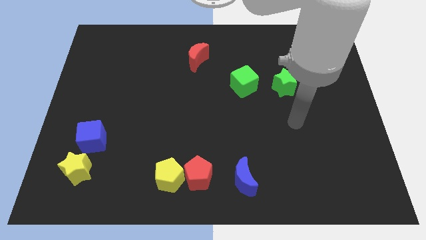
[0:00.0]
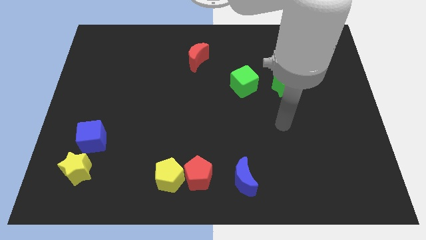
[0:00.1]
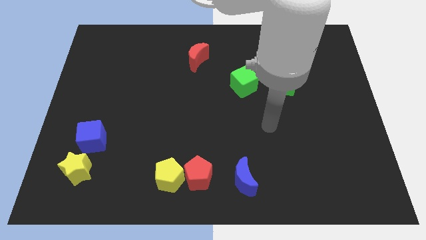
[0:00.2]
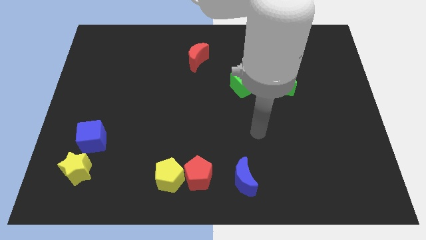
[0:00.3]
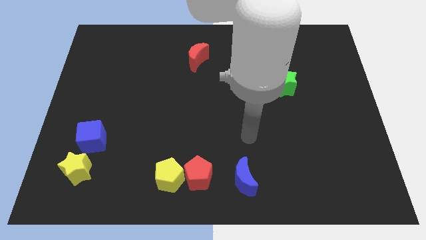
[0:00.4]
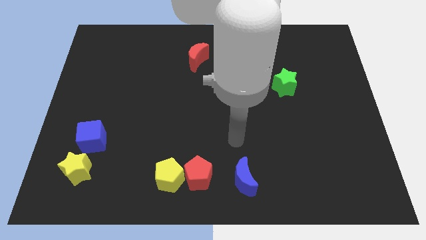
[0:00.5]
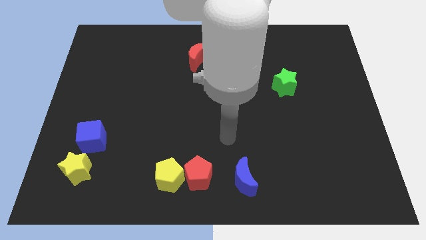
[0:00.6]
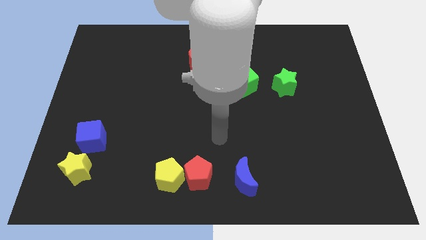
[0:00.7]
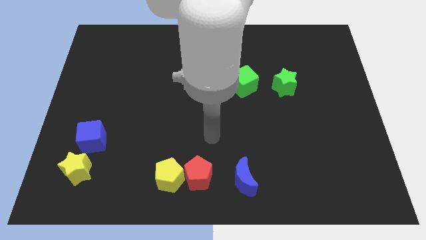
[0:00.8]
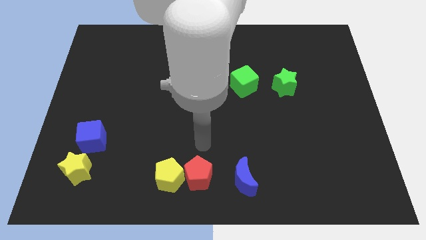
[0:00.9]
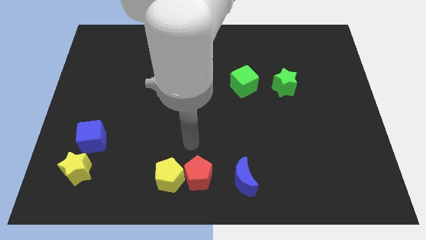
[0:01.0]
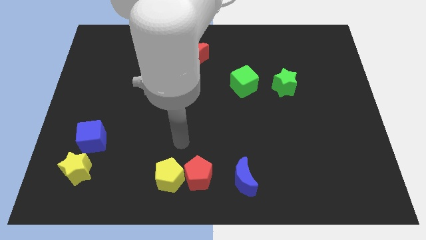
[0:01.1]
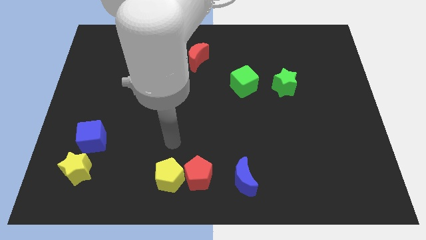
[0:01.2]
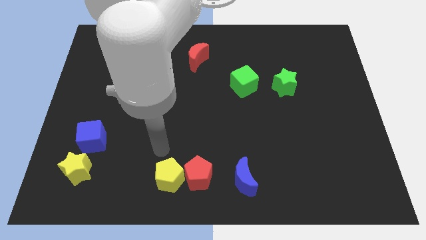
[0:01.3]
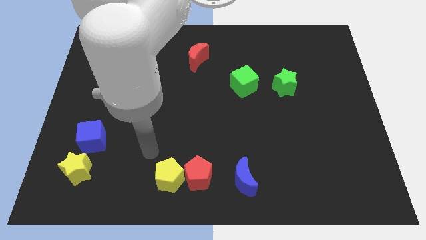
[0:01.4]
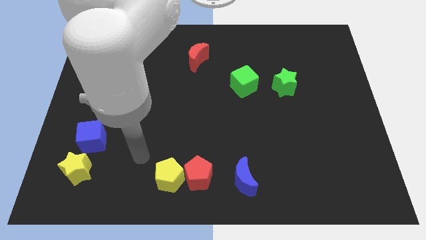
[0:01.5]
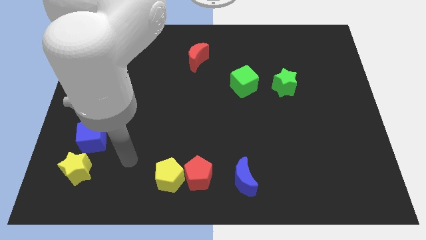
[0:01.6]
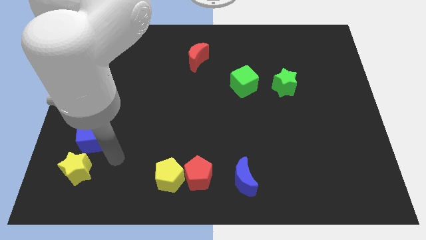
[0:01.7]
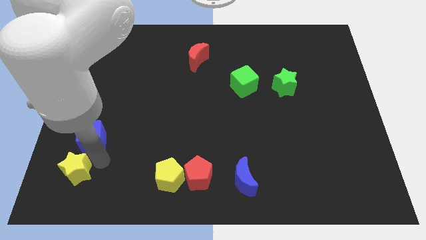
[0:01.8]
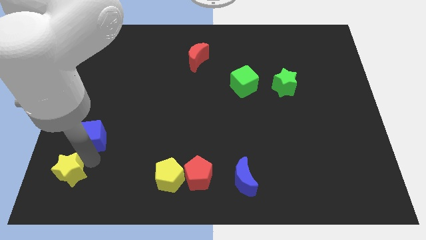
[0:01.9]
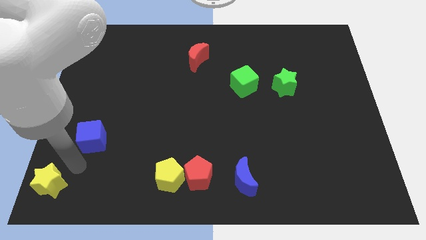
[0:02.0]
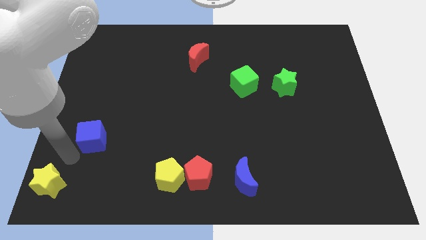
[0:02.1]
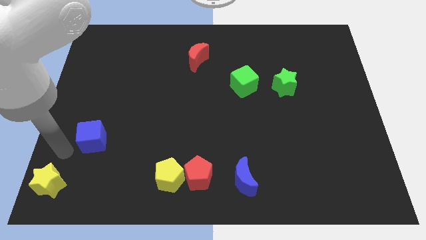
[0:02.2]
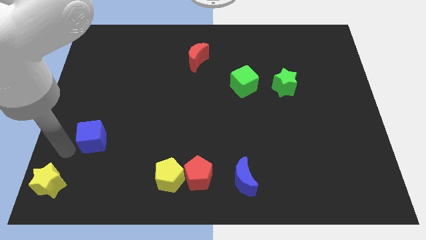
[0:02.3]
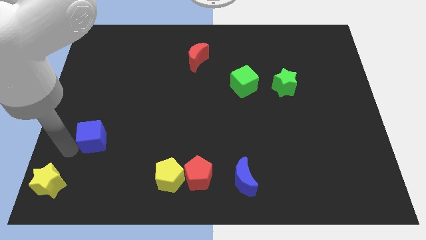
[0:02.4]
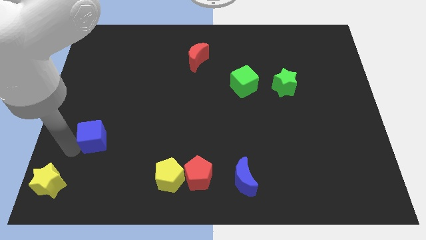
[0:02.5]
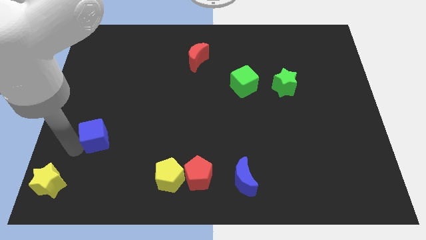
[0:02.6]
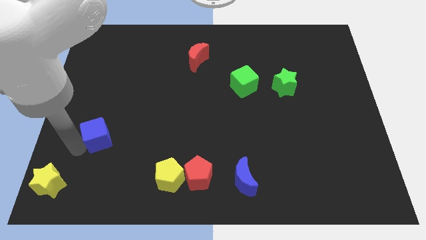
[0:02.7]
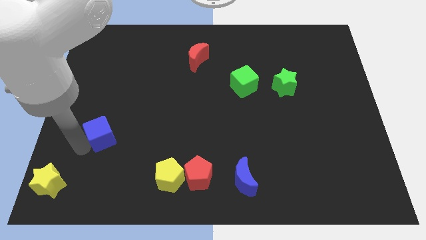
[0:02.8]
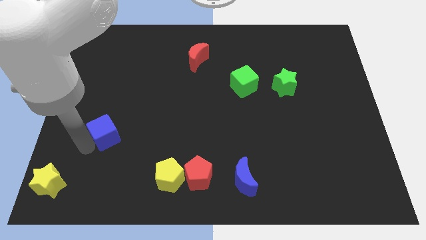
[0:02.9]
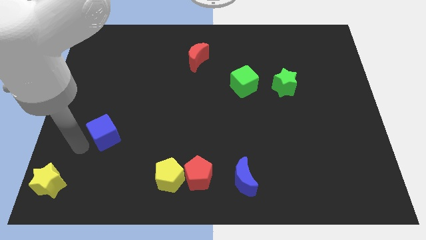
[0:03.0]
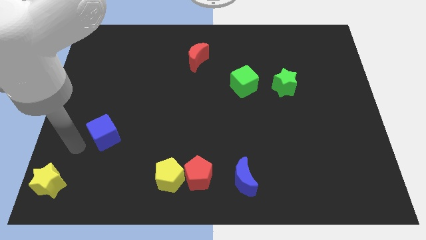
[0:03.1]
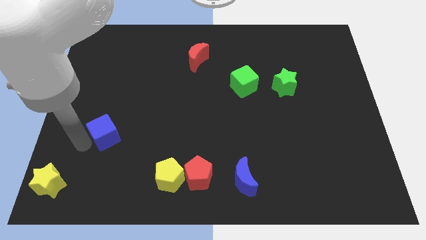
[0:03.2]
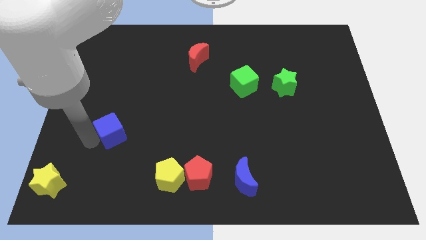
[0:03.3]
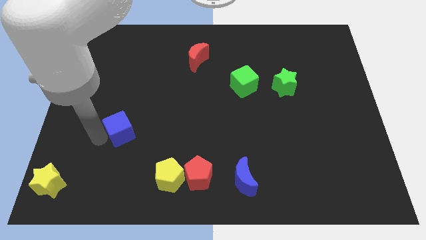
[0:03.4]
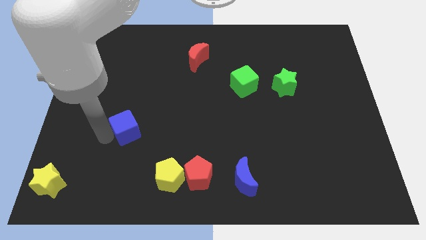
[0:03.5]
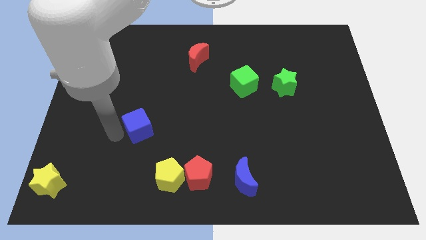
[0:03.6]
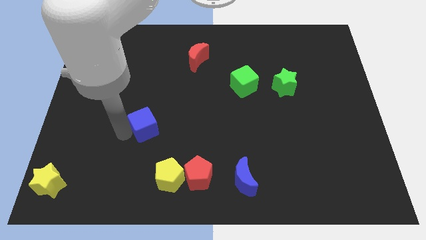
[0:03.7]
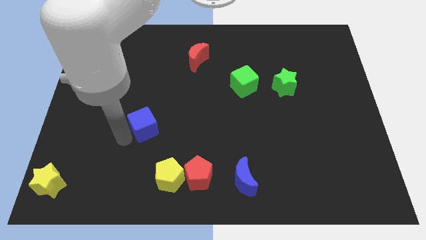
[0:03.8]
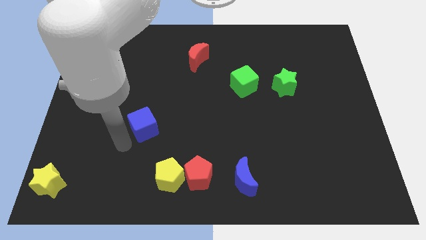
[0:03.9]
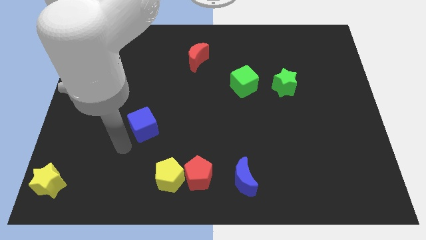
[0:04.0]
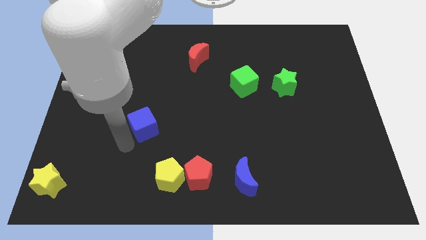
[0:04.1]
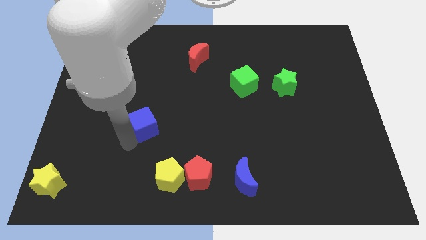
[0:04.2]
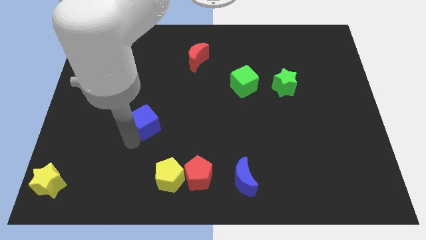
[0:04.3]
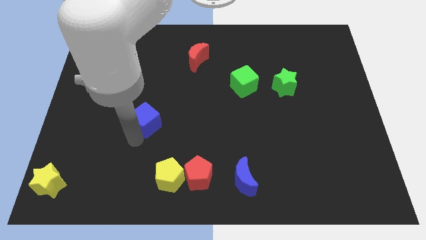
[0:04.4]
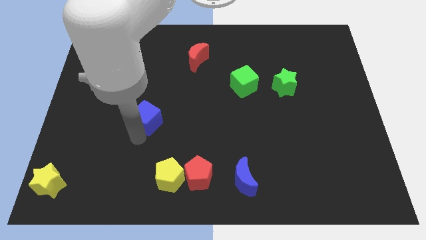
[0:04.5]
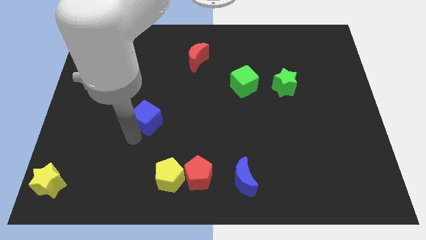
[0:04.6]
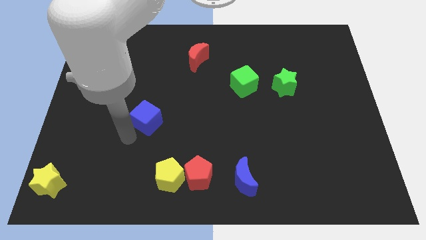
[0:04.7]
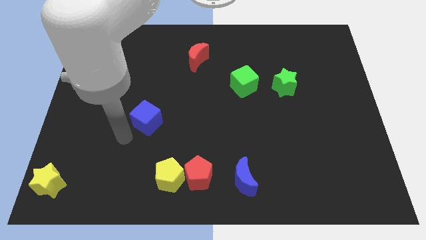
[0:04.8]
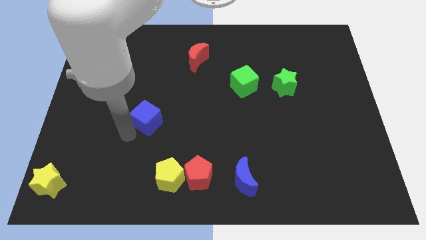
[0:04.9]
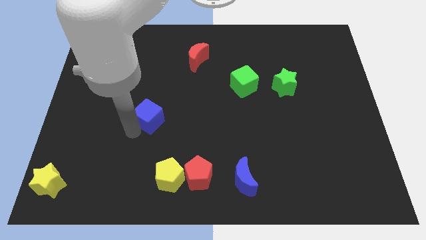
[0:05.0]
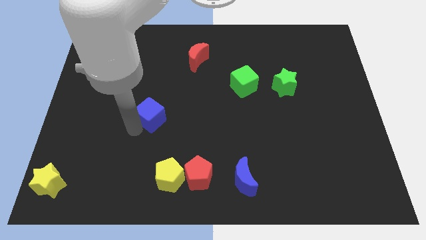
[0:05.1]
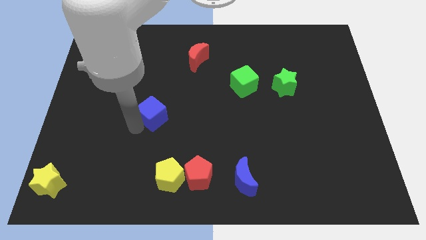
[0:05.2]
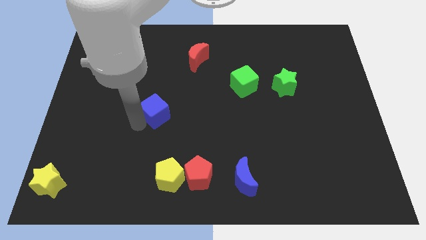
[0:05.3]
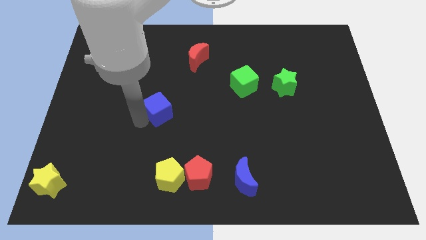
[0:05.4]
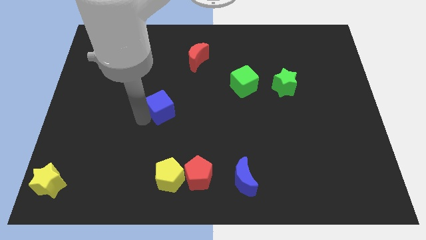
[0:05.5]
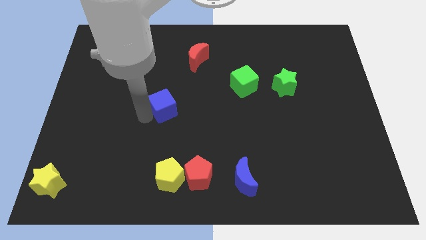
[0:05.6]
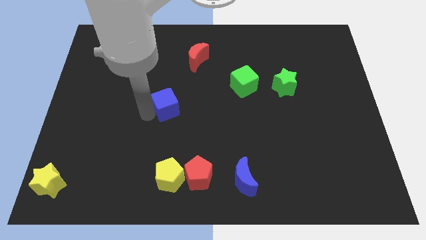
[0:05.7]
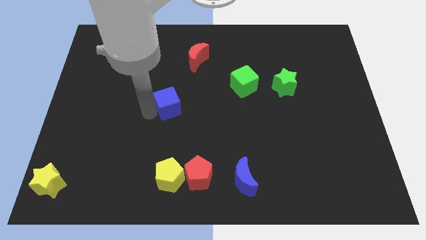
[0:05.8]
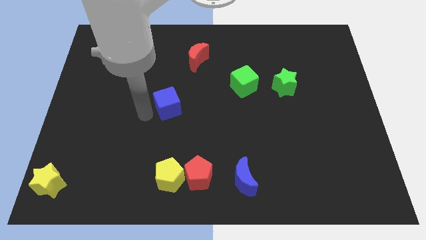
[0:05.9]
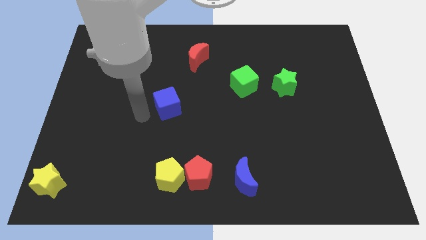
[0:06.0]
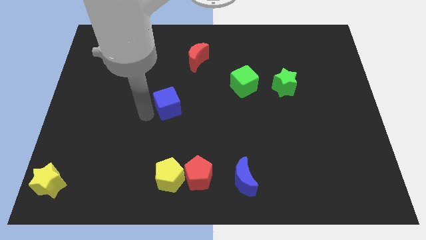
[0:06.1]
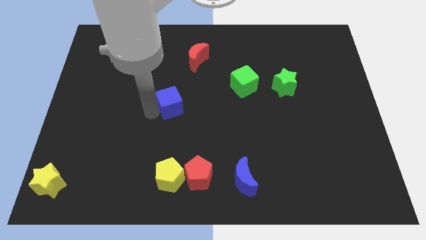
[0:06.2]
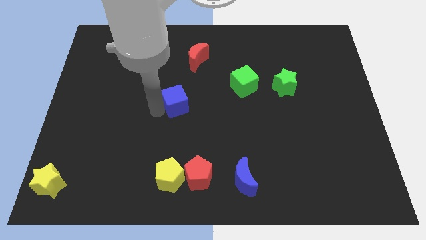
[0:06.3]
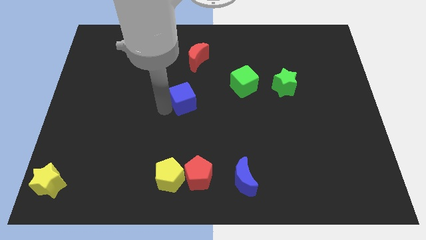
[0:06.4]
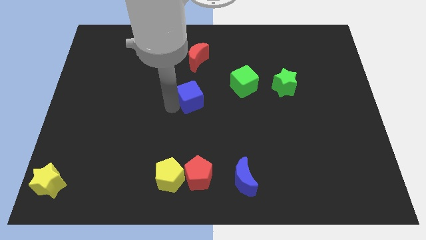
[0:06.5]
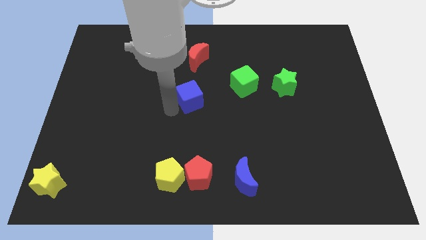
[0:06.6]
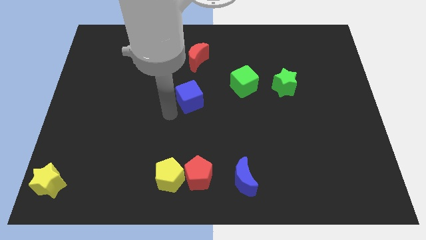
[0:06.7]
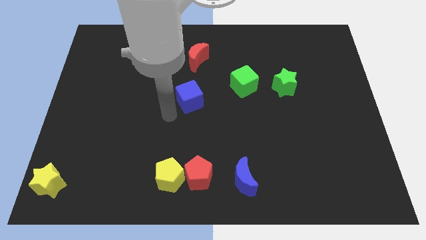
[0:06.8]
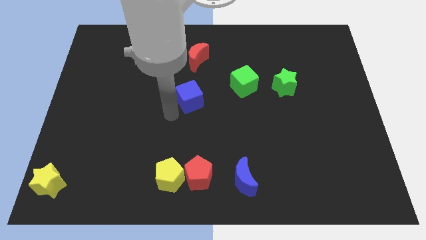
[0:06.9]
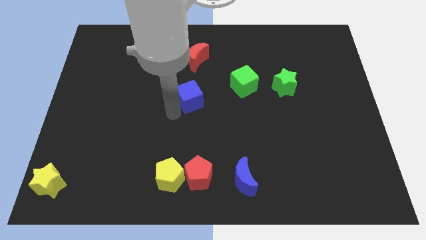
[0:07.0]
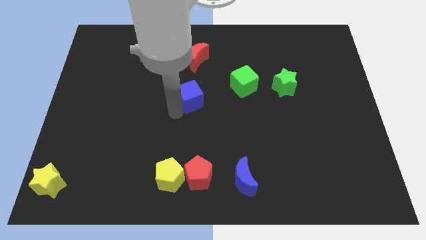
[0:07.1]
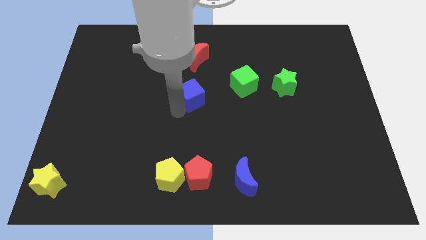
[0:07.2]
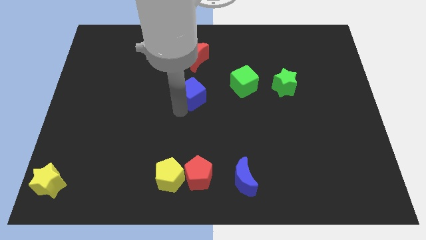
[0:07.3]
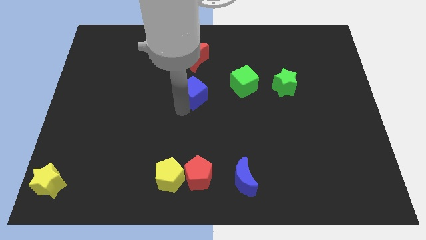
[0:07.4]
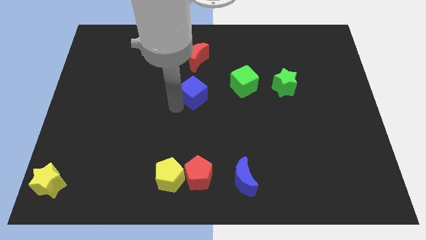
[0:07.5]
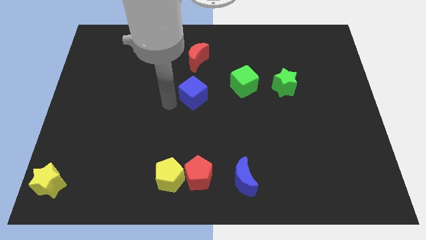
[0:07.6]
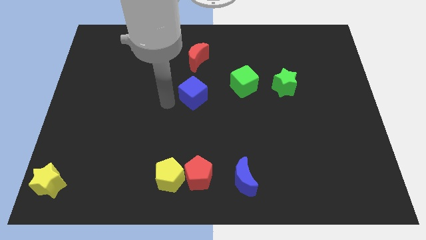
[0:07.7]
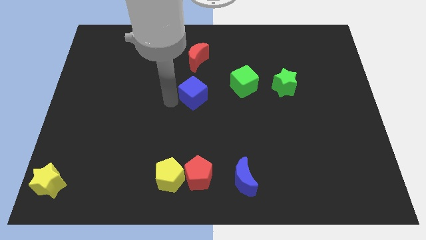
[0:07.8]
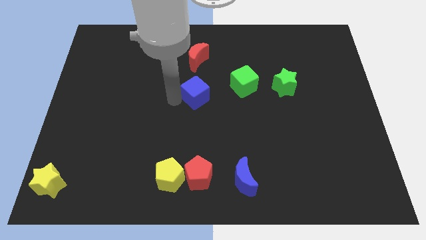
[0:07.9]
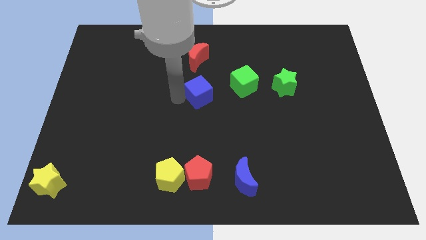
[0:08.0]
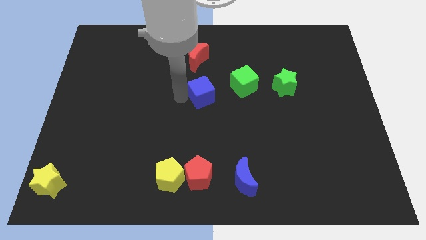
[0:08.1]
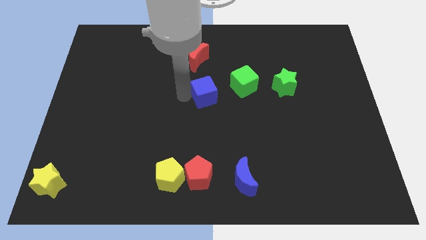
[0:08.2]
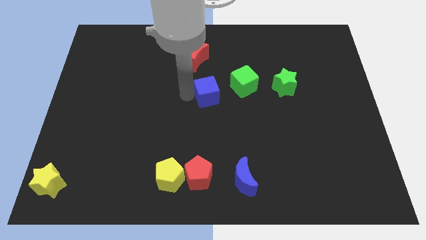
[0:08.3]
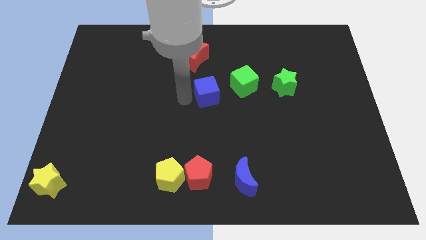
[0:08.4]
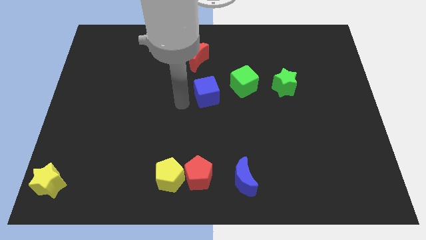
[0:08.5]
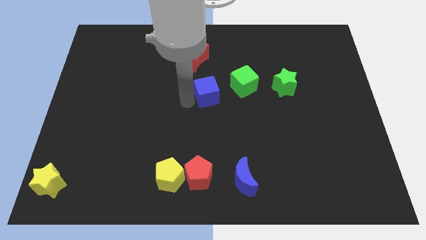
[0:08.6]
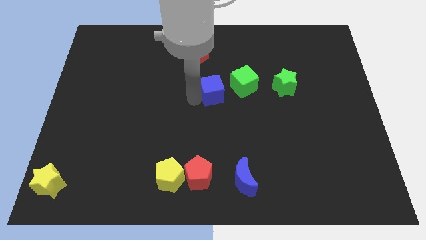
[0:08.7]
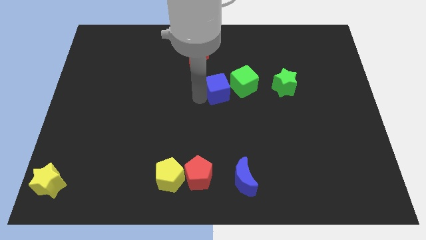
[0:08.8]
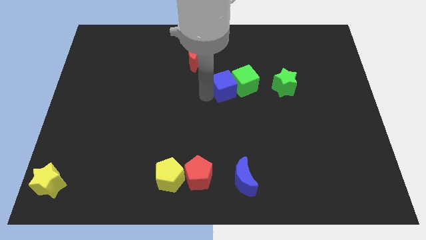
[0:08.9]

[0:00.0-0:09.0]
push the blue cube next to the green cube
